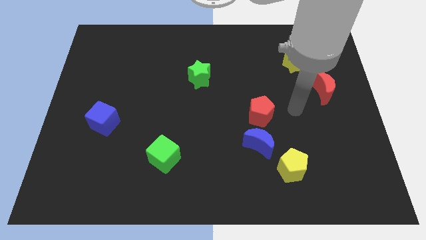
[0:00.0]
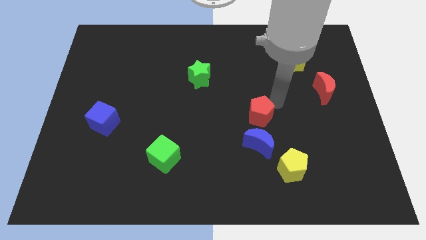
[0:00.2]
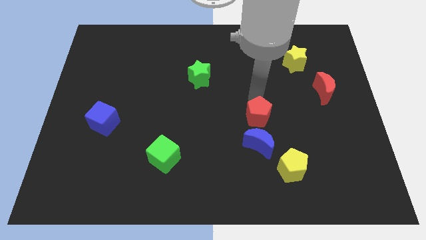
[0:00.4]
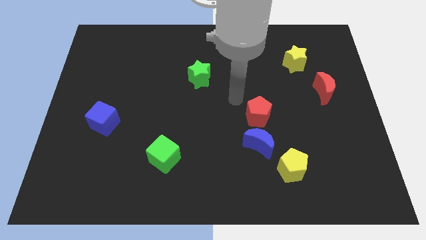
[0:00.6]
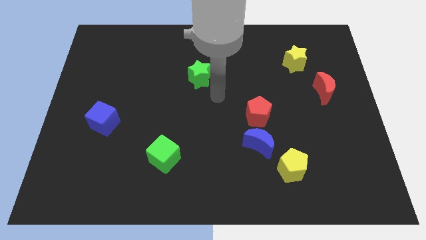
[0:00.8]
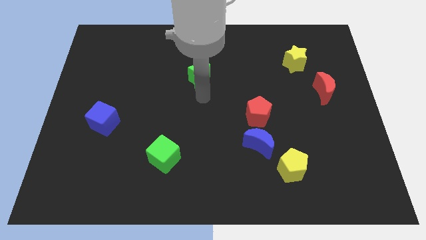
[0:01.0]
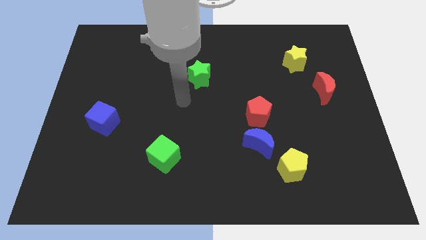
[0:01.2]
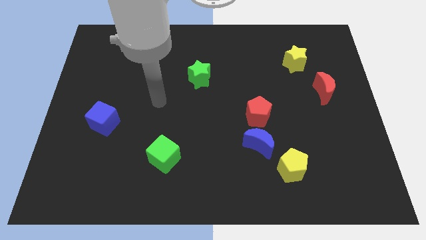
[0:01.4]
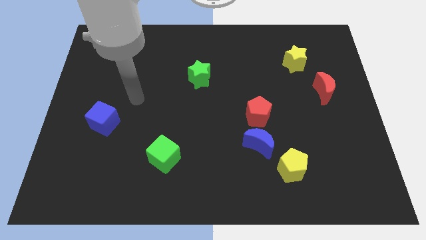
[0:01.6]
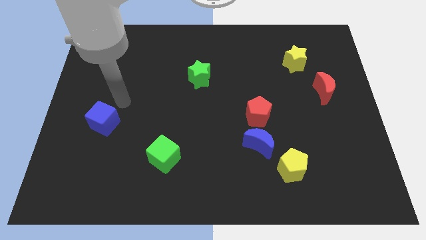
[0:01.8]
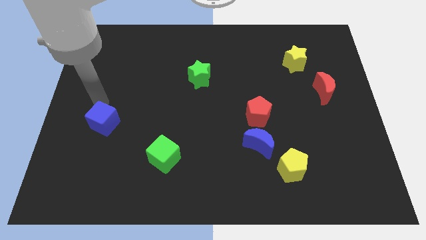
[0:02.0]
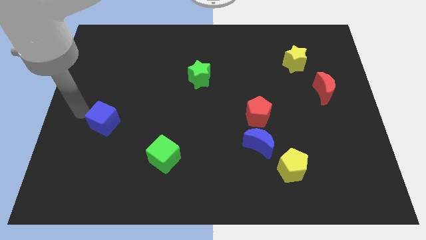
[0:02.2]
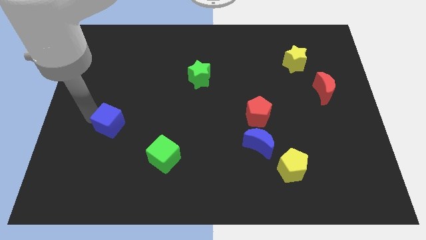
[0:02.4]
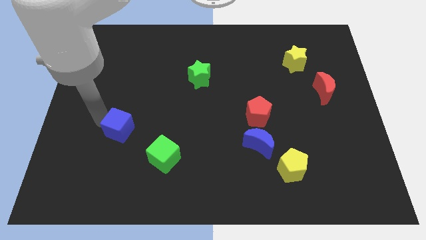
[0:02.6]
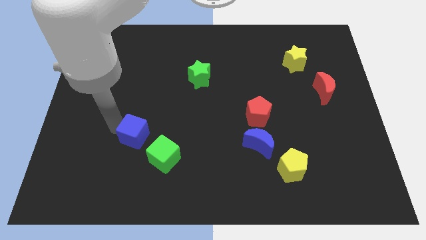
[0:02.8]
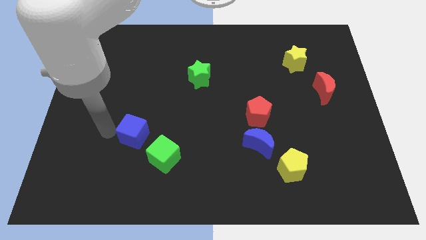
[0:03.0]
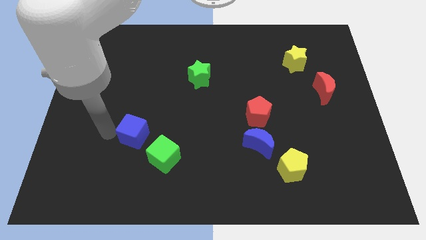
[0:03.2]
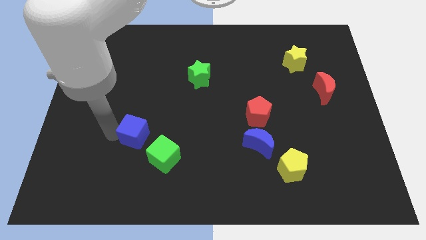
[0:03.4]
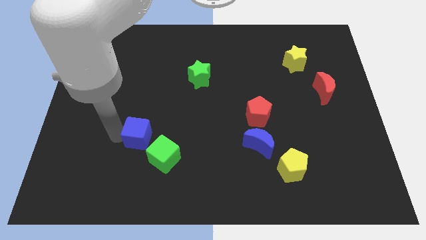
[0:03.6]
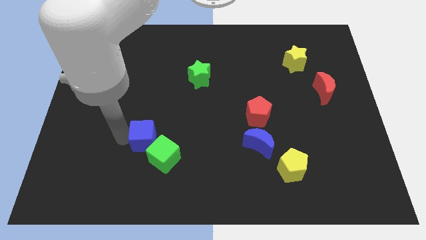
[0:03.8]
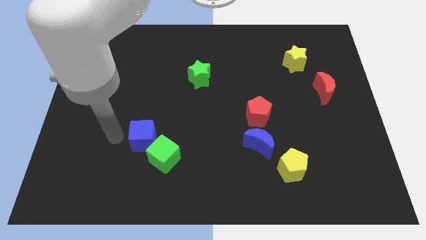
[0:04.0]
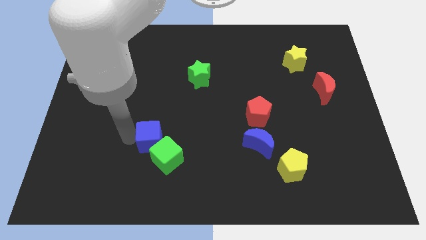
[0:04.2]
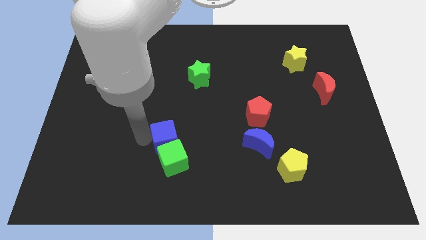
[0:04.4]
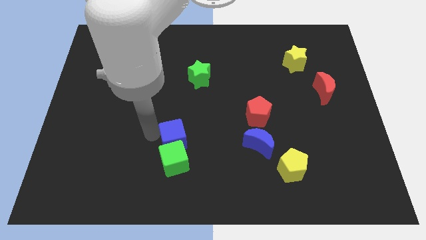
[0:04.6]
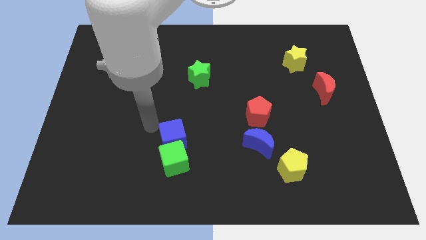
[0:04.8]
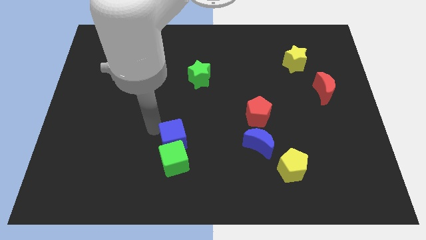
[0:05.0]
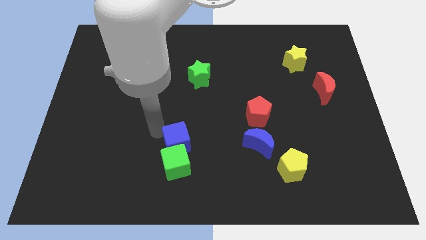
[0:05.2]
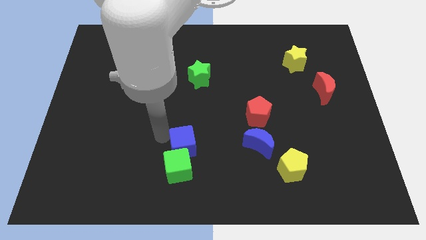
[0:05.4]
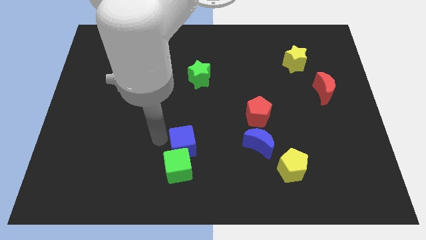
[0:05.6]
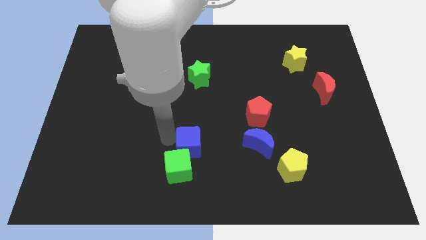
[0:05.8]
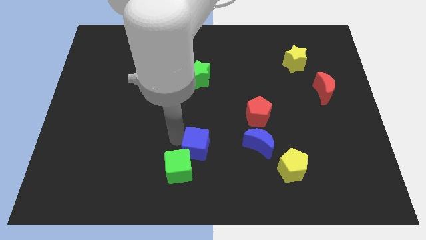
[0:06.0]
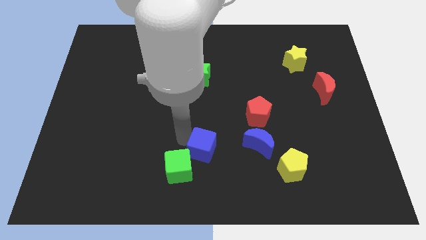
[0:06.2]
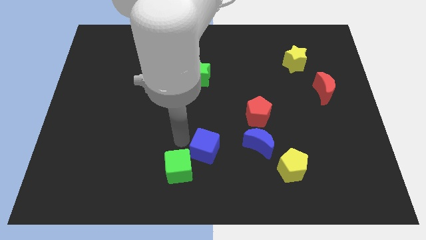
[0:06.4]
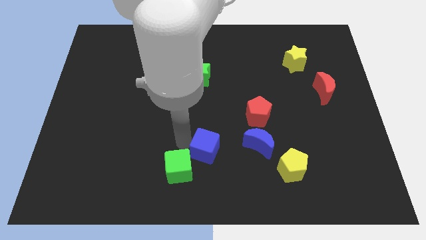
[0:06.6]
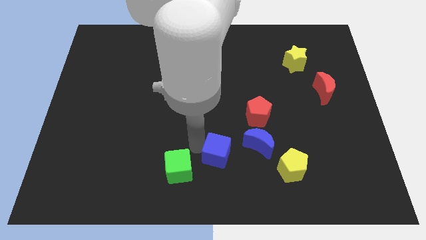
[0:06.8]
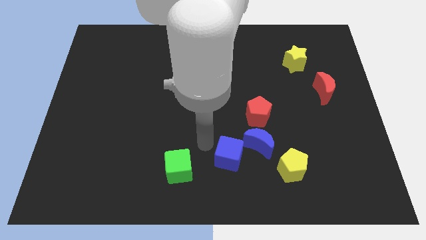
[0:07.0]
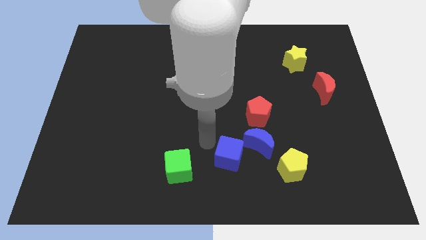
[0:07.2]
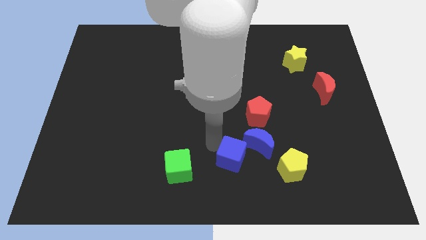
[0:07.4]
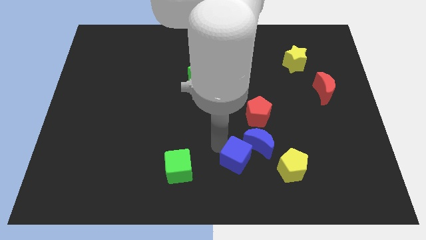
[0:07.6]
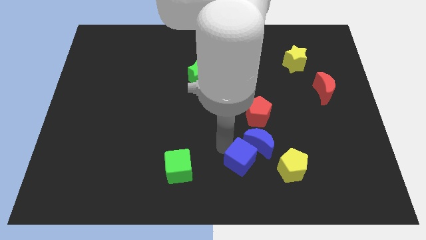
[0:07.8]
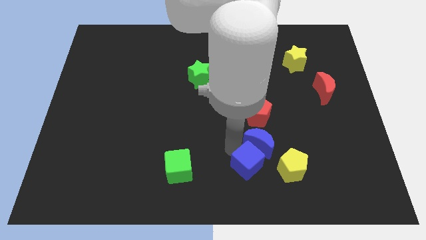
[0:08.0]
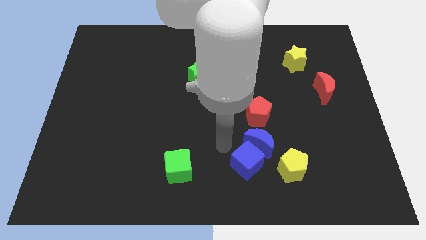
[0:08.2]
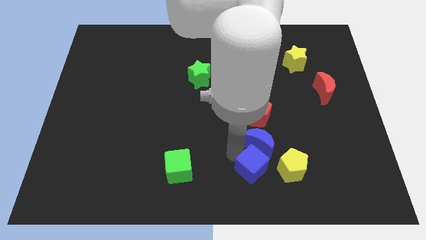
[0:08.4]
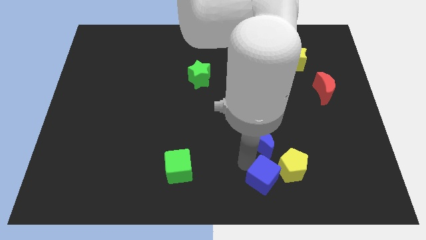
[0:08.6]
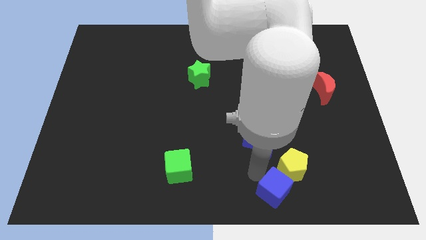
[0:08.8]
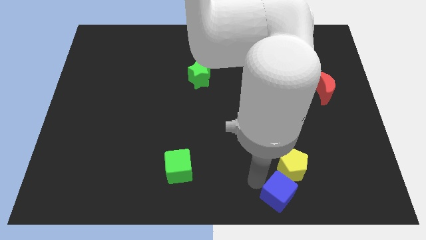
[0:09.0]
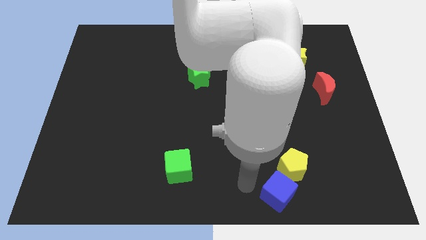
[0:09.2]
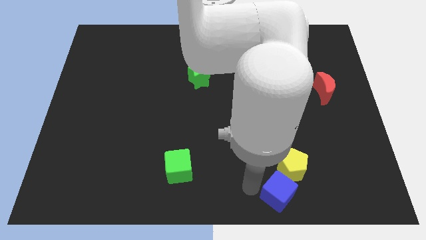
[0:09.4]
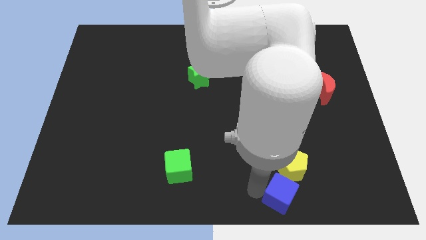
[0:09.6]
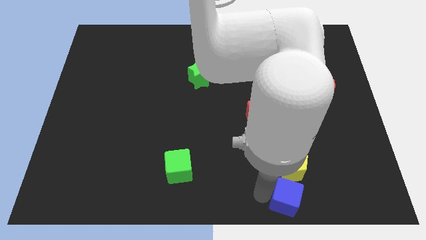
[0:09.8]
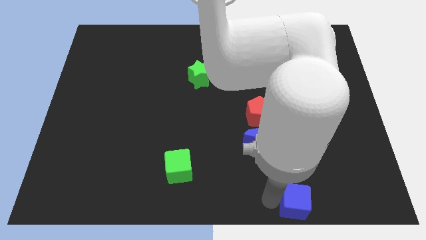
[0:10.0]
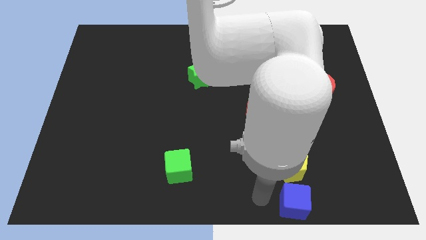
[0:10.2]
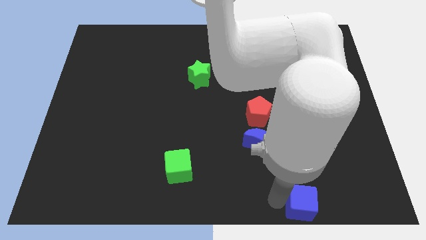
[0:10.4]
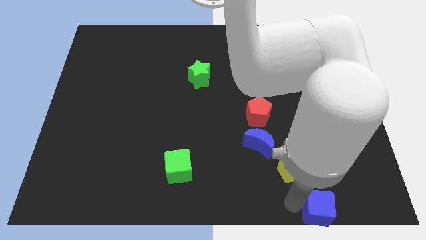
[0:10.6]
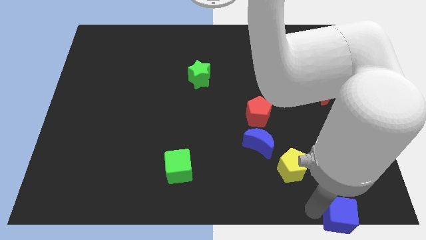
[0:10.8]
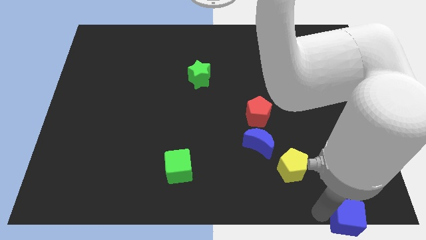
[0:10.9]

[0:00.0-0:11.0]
put the blue cube to the bottom right of the board
